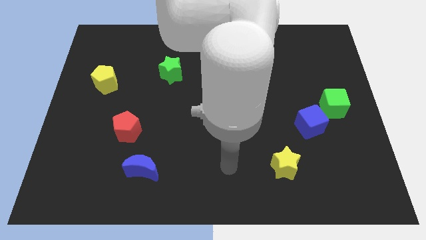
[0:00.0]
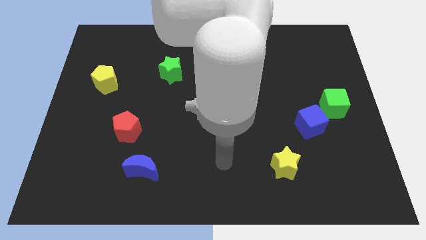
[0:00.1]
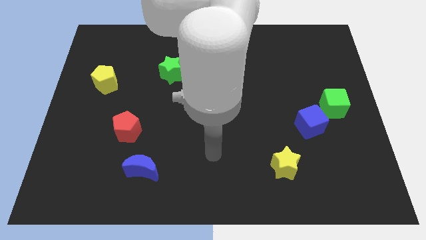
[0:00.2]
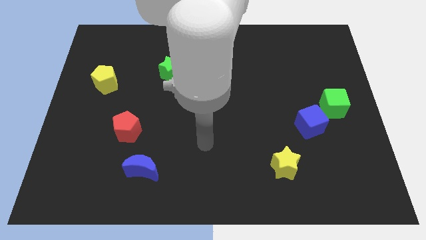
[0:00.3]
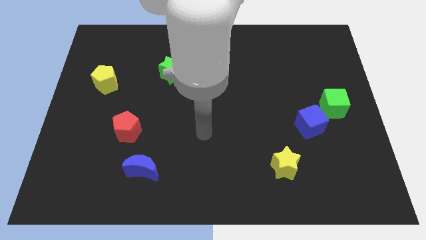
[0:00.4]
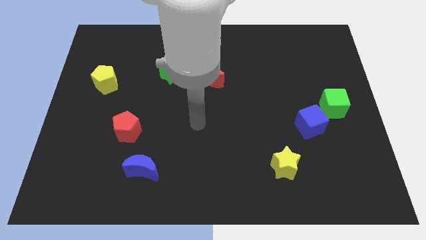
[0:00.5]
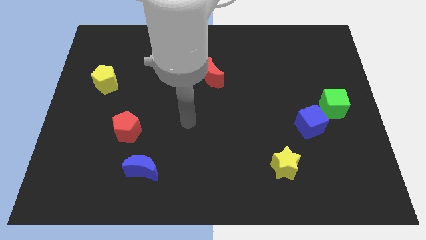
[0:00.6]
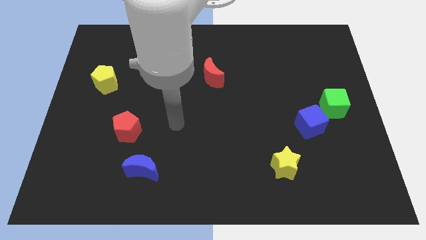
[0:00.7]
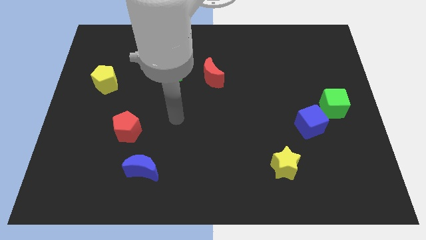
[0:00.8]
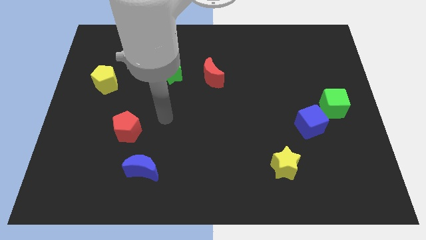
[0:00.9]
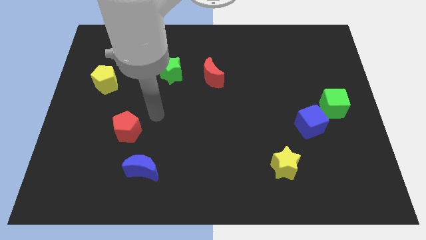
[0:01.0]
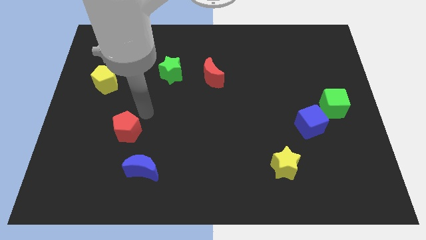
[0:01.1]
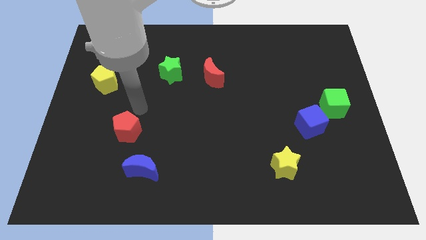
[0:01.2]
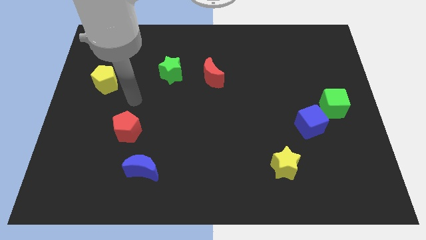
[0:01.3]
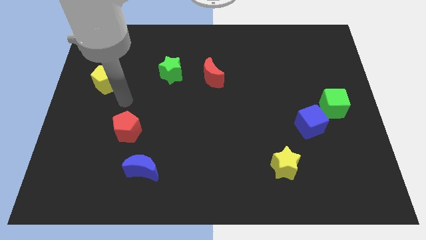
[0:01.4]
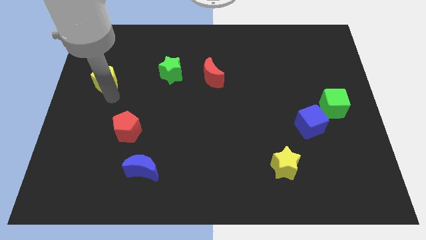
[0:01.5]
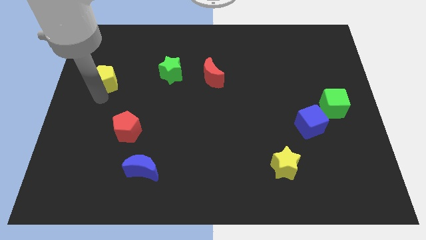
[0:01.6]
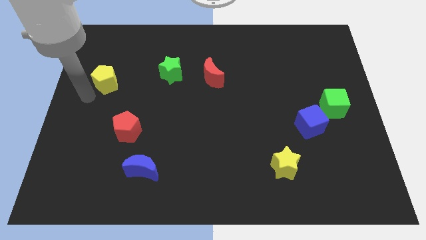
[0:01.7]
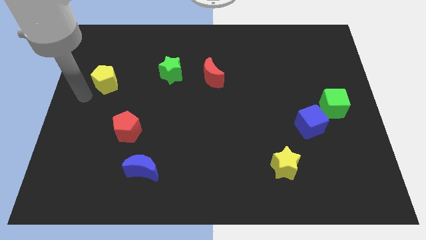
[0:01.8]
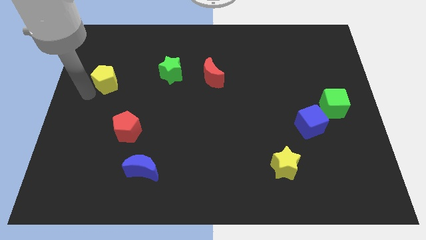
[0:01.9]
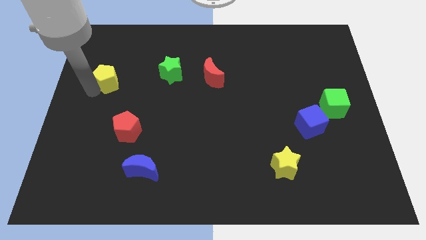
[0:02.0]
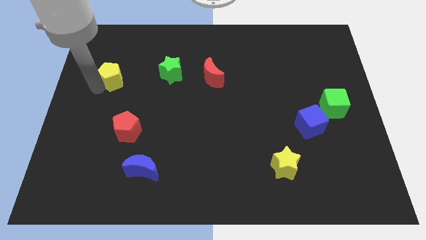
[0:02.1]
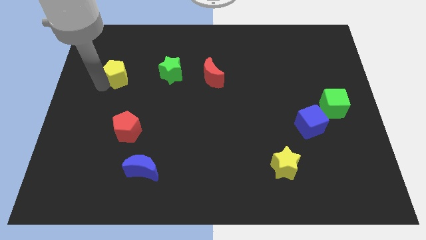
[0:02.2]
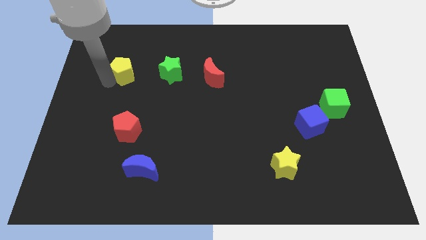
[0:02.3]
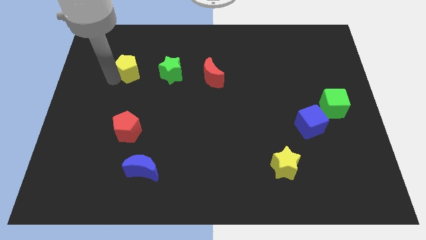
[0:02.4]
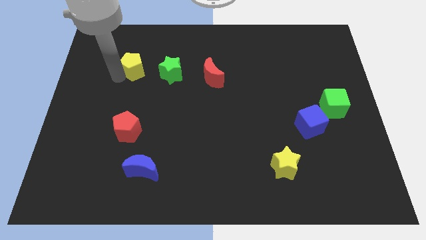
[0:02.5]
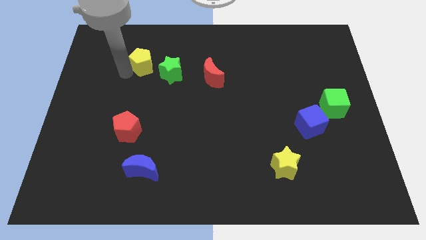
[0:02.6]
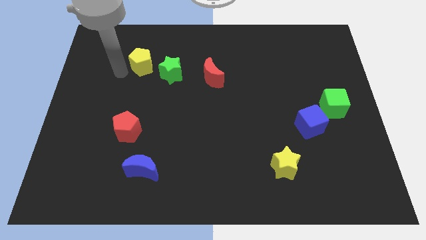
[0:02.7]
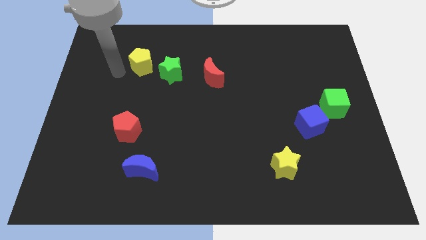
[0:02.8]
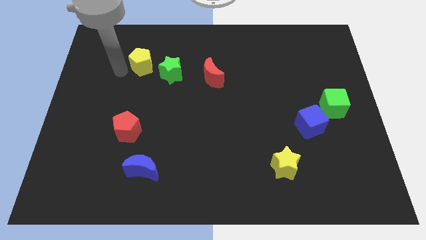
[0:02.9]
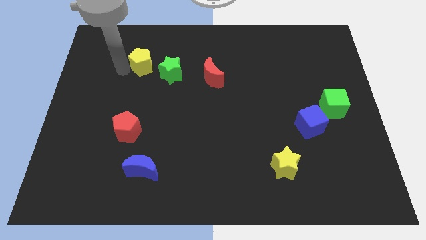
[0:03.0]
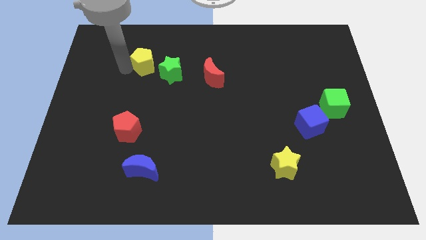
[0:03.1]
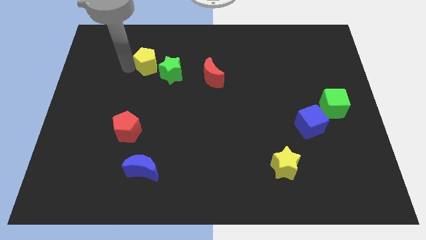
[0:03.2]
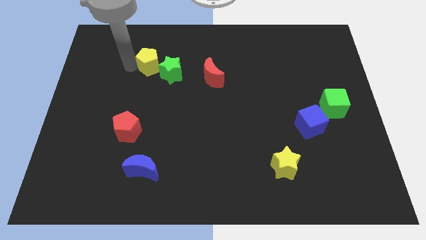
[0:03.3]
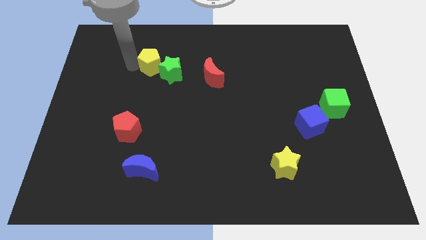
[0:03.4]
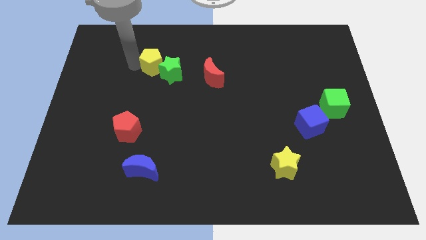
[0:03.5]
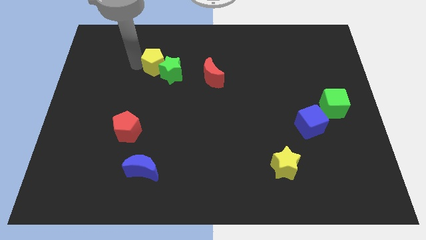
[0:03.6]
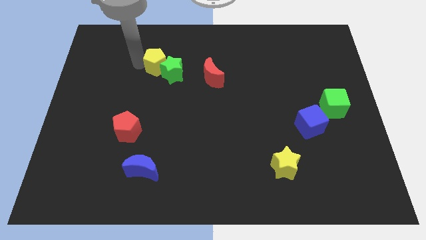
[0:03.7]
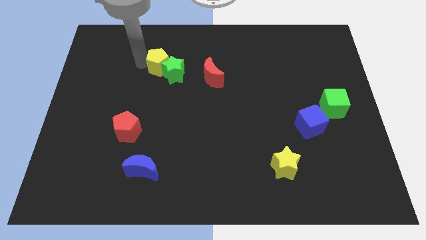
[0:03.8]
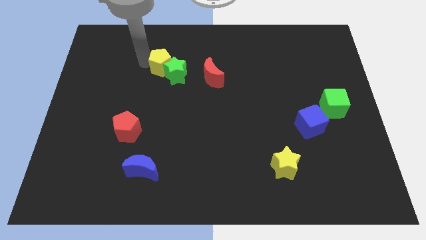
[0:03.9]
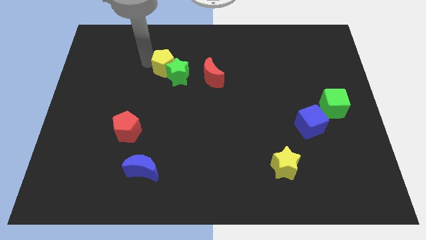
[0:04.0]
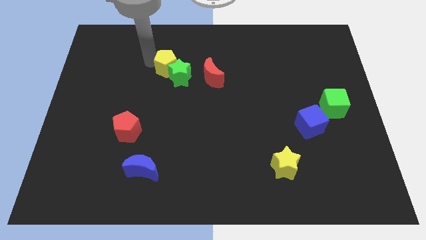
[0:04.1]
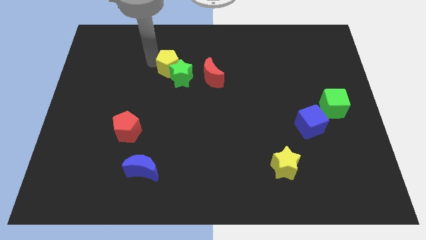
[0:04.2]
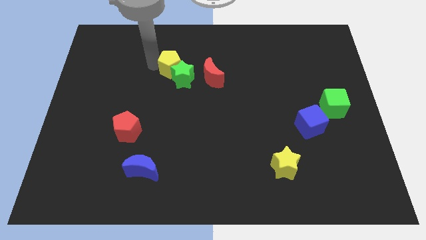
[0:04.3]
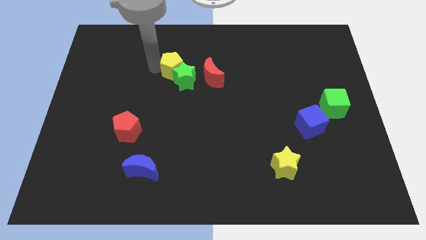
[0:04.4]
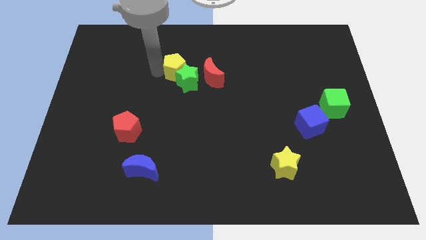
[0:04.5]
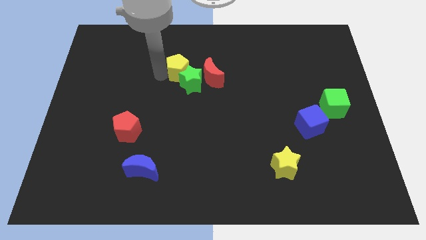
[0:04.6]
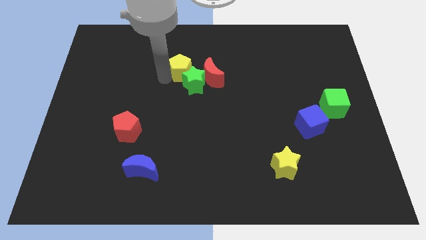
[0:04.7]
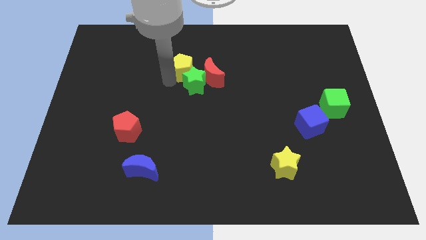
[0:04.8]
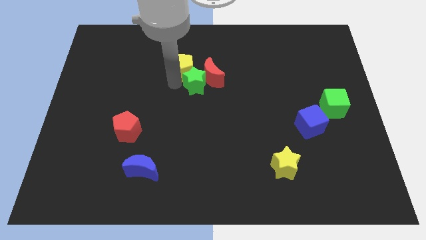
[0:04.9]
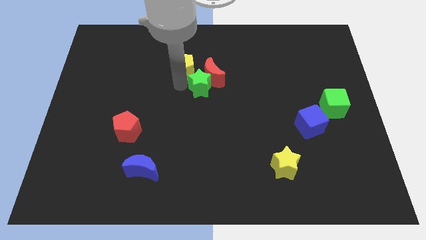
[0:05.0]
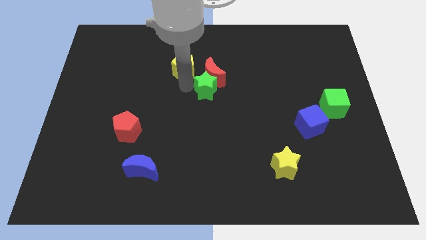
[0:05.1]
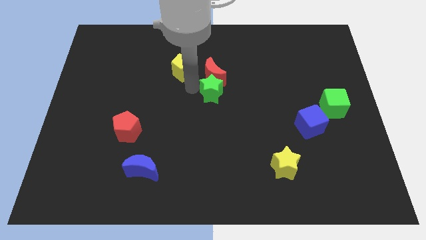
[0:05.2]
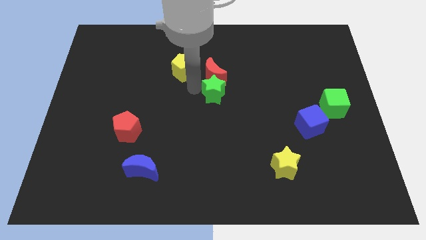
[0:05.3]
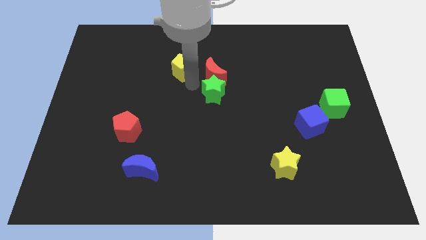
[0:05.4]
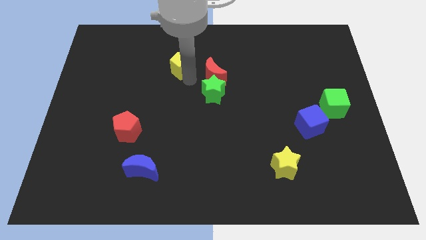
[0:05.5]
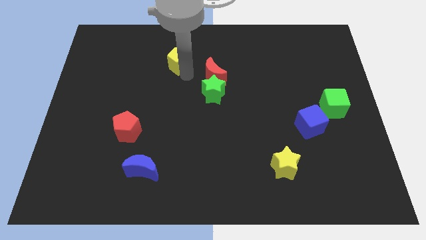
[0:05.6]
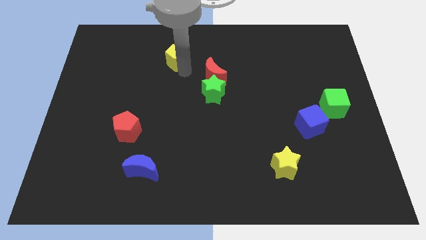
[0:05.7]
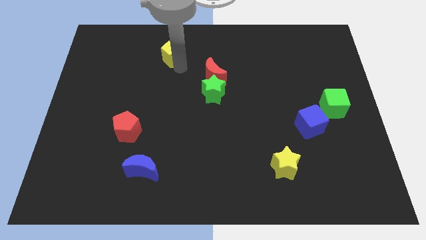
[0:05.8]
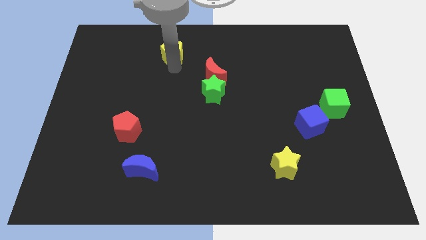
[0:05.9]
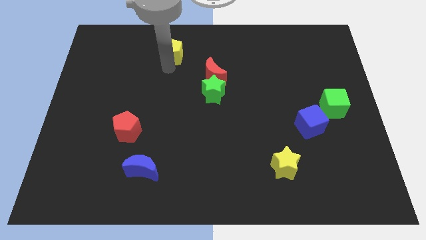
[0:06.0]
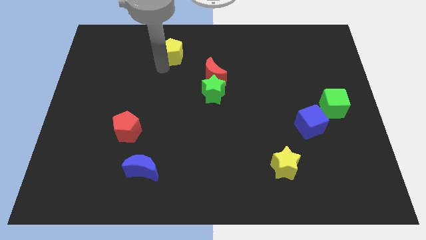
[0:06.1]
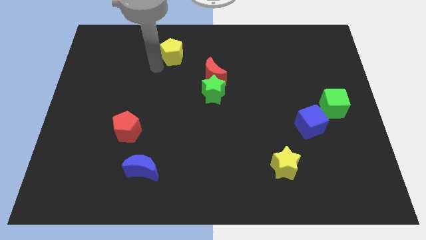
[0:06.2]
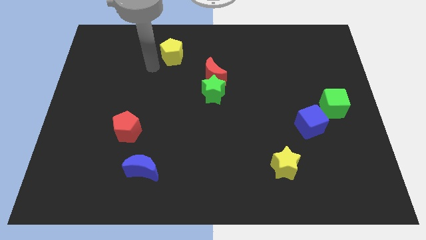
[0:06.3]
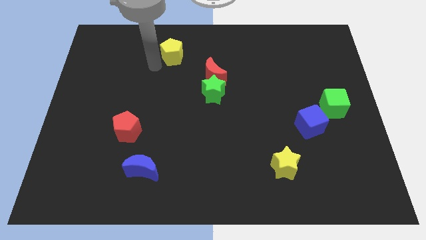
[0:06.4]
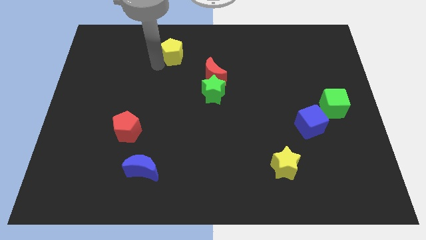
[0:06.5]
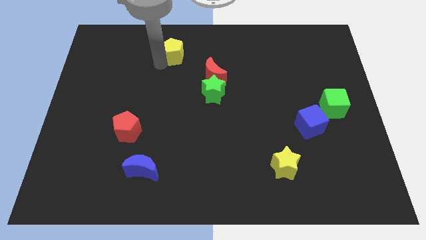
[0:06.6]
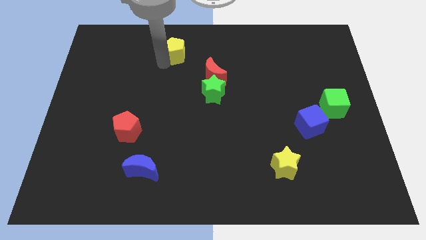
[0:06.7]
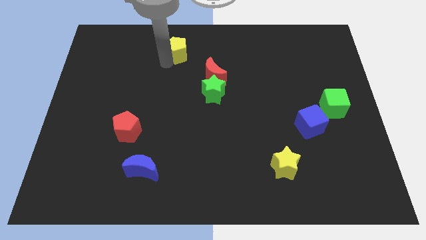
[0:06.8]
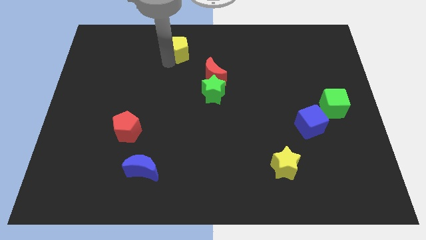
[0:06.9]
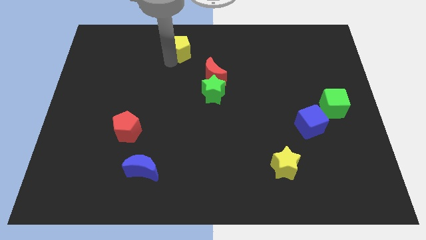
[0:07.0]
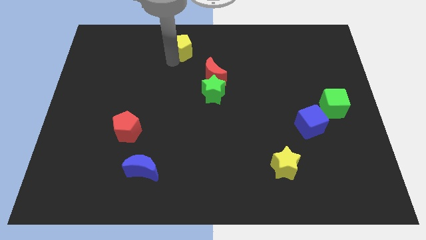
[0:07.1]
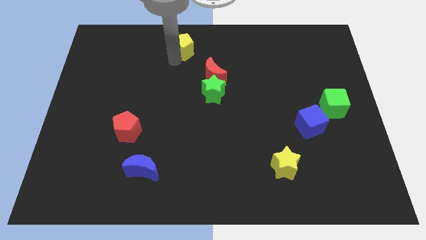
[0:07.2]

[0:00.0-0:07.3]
put the yellow pentagon to the top
